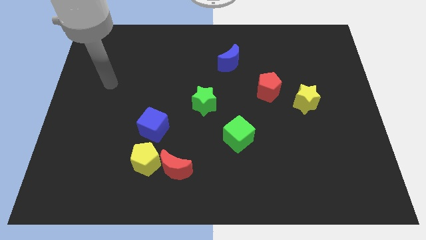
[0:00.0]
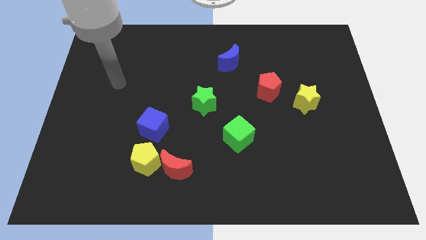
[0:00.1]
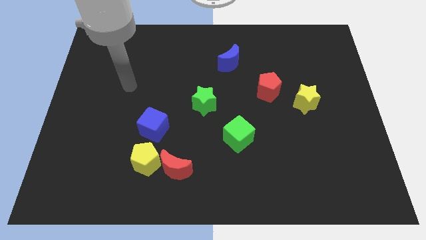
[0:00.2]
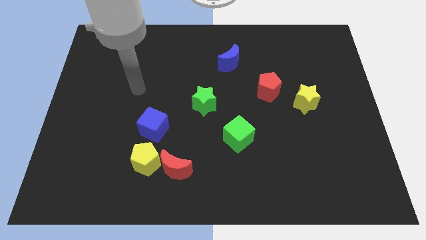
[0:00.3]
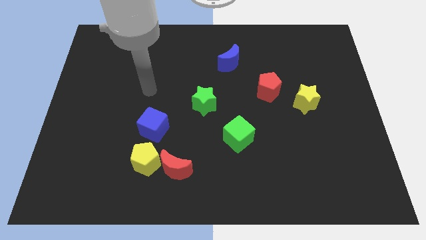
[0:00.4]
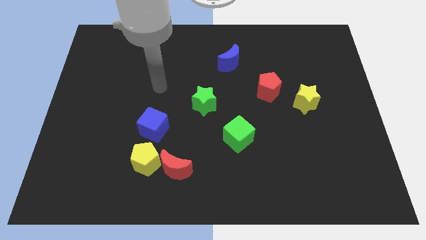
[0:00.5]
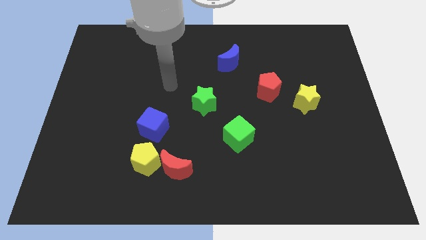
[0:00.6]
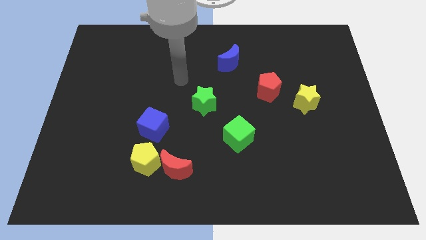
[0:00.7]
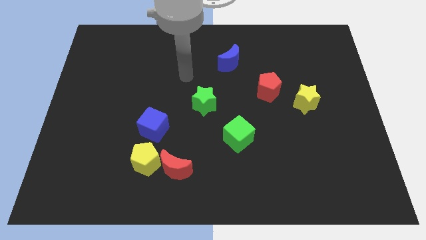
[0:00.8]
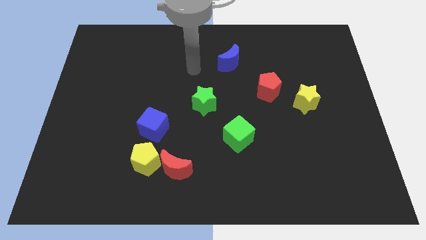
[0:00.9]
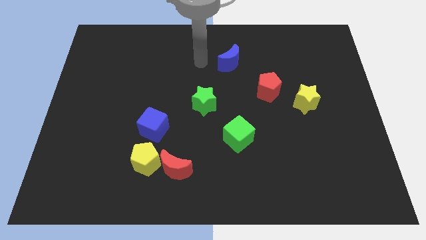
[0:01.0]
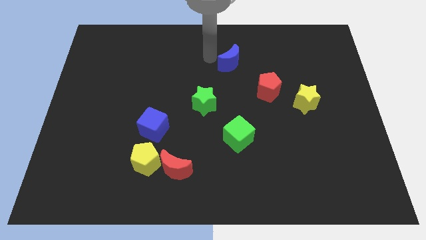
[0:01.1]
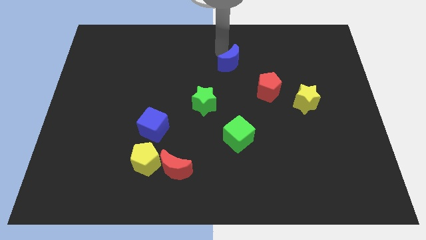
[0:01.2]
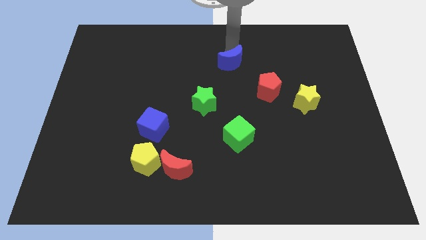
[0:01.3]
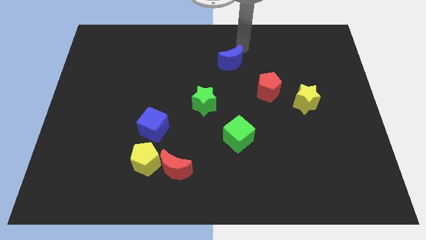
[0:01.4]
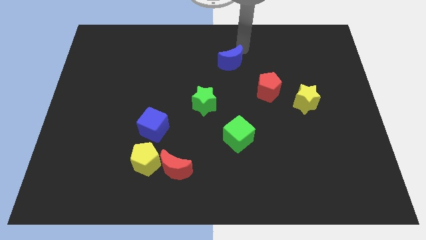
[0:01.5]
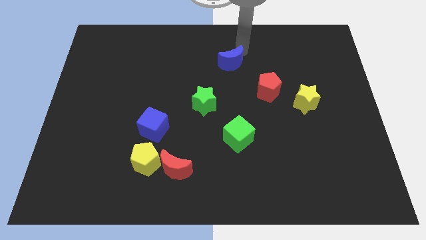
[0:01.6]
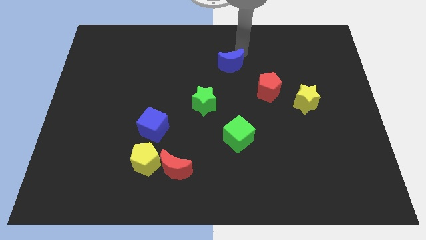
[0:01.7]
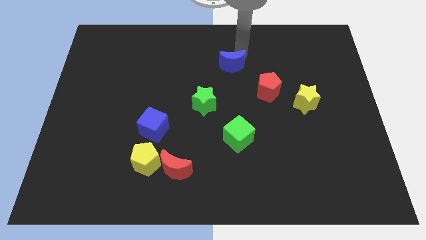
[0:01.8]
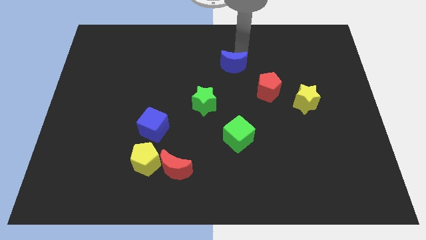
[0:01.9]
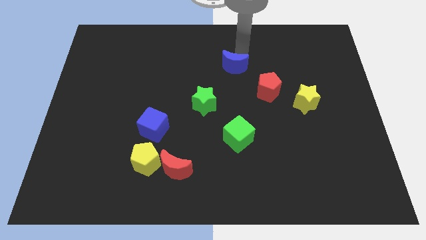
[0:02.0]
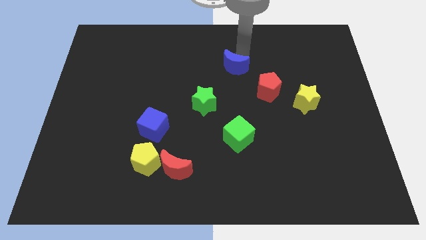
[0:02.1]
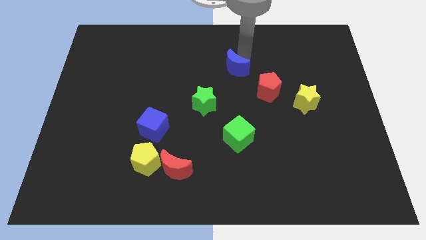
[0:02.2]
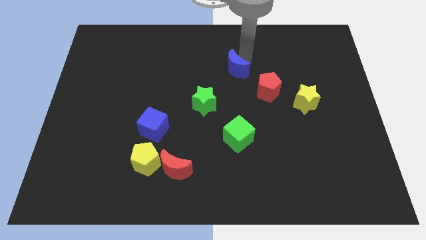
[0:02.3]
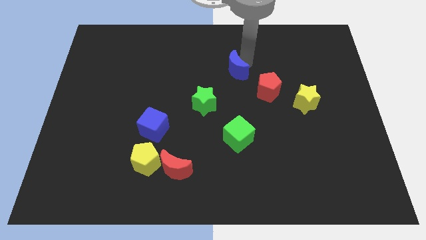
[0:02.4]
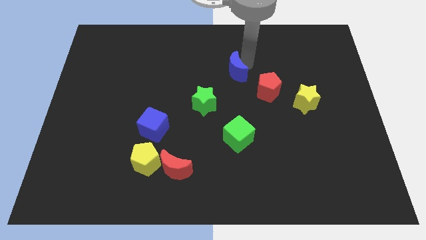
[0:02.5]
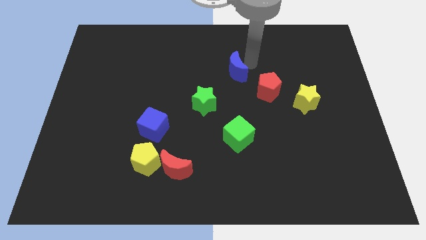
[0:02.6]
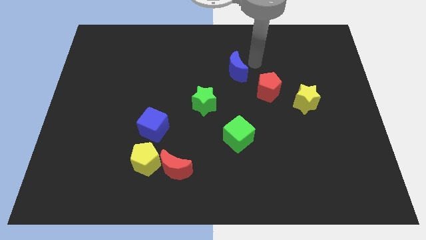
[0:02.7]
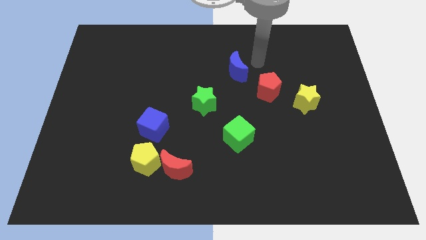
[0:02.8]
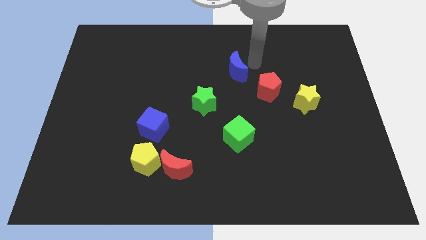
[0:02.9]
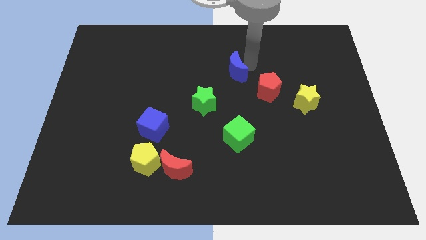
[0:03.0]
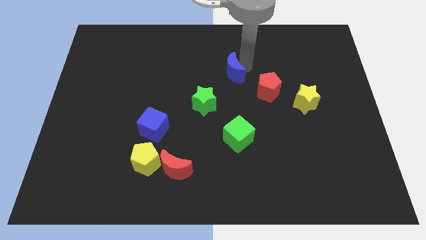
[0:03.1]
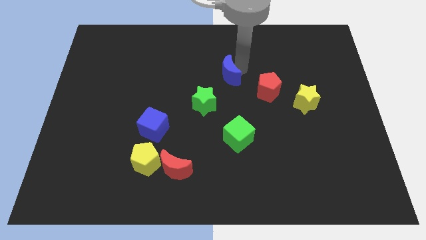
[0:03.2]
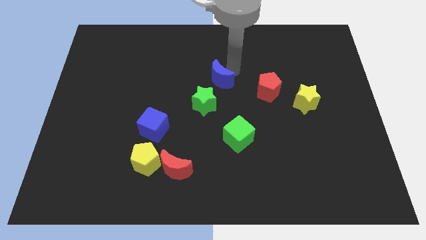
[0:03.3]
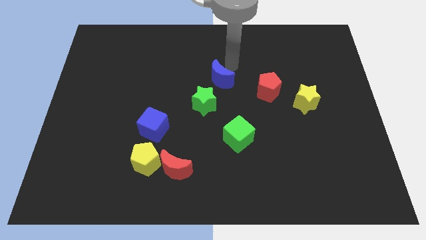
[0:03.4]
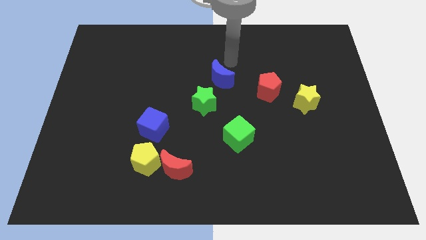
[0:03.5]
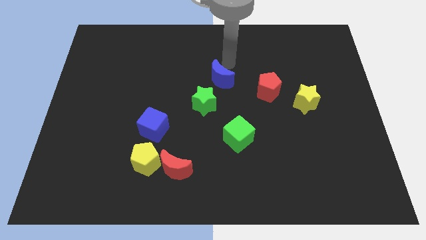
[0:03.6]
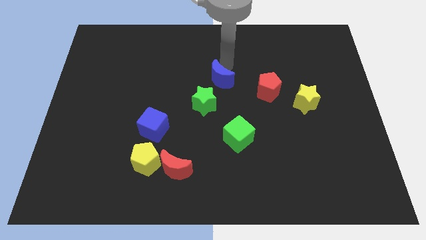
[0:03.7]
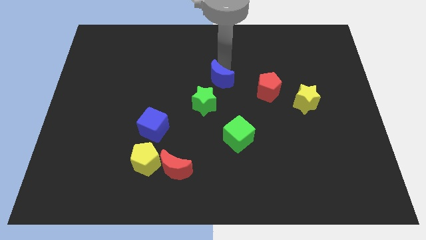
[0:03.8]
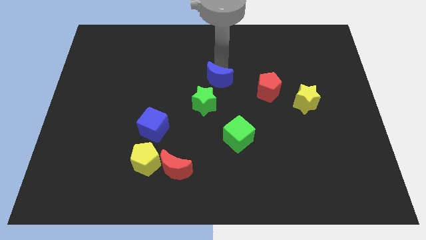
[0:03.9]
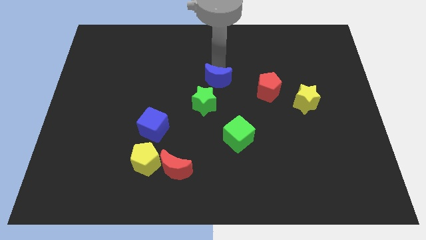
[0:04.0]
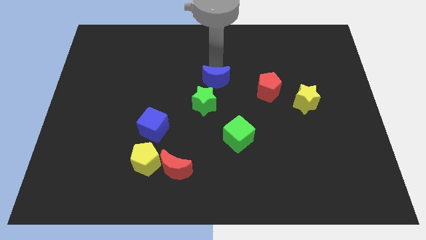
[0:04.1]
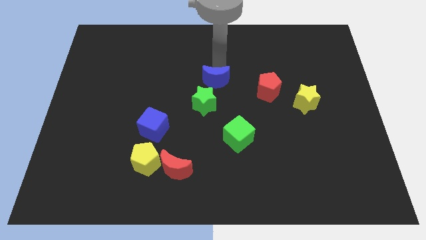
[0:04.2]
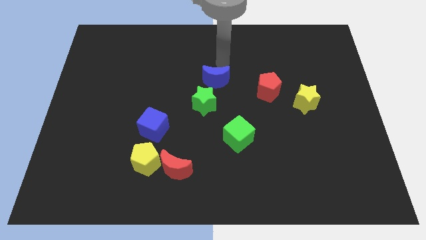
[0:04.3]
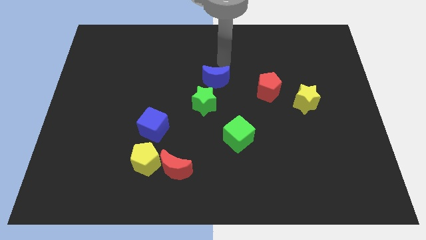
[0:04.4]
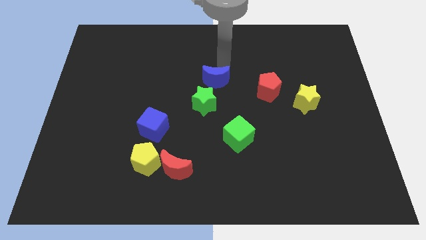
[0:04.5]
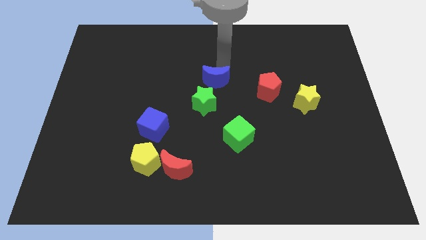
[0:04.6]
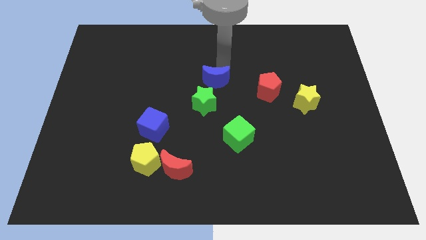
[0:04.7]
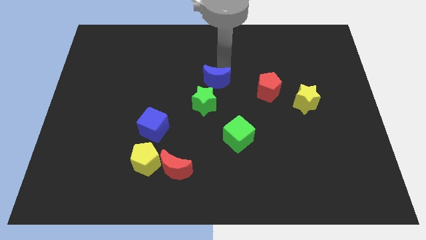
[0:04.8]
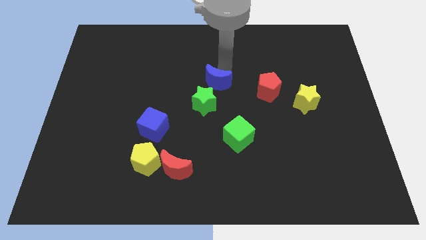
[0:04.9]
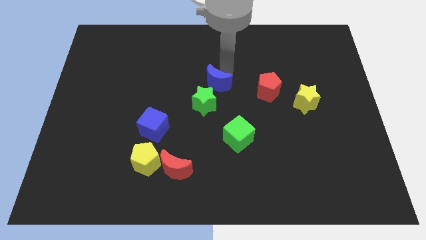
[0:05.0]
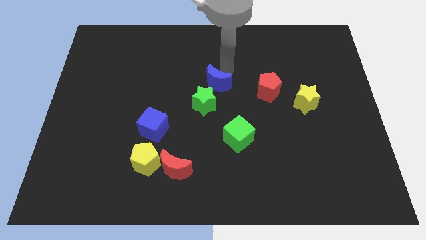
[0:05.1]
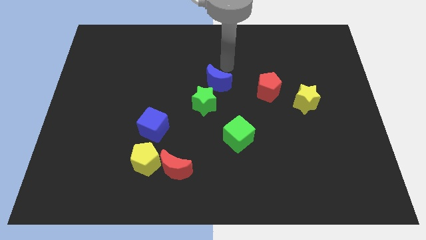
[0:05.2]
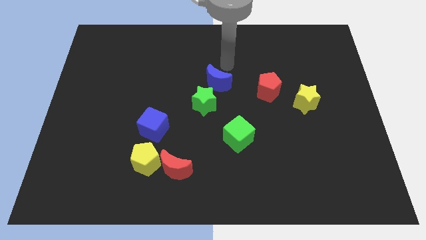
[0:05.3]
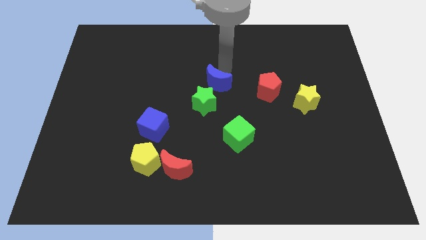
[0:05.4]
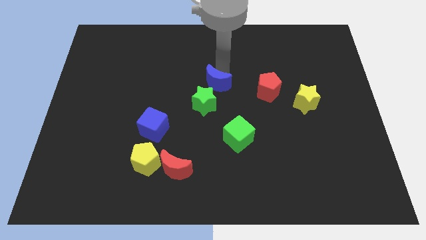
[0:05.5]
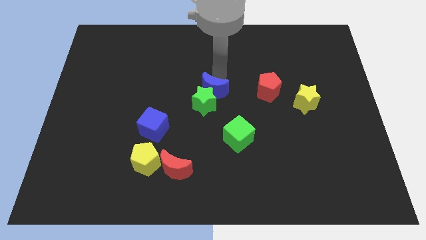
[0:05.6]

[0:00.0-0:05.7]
move the blue moon towards the green star

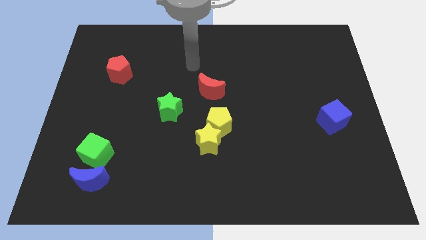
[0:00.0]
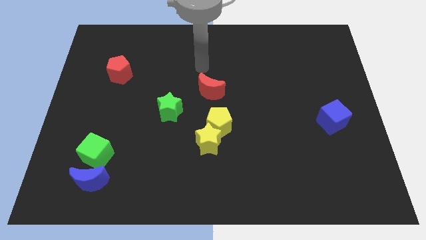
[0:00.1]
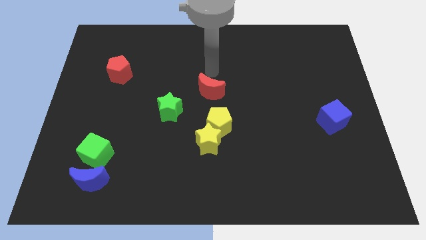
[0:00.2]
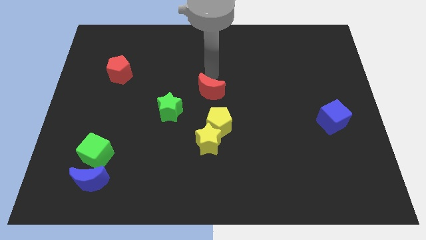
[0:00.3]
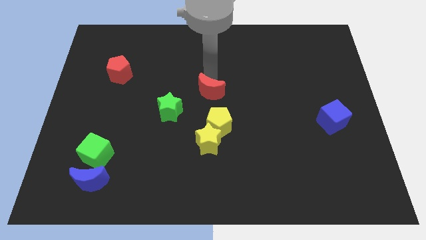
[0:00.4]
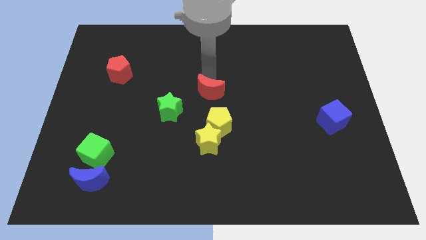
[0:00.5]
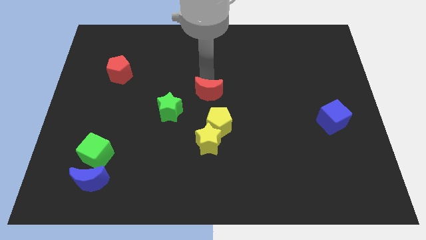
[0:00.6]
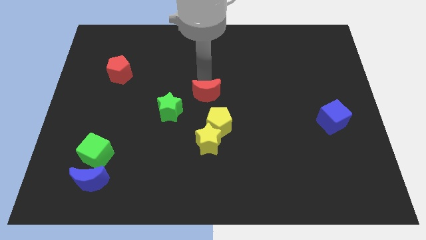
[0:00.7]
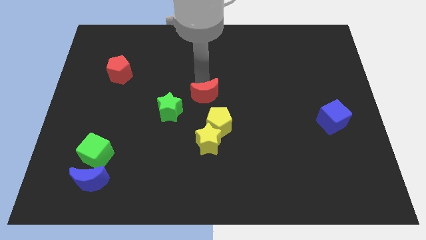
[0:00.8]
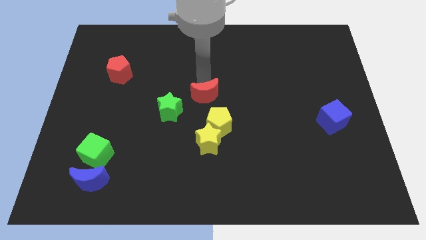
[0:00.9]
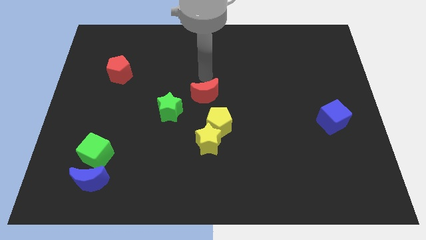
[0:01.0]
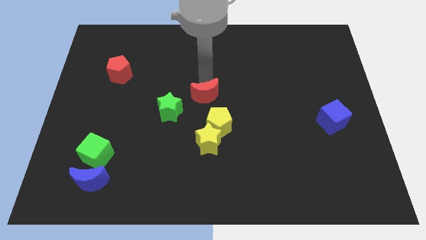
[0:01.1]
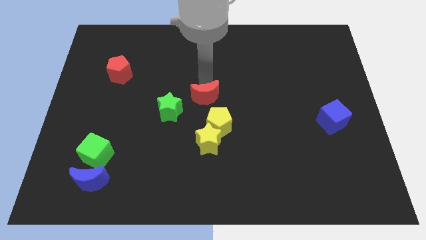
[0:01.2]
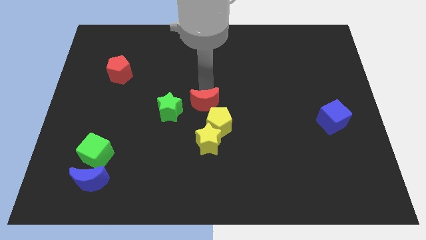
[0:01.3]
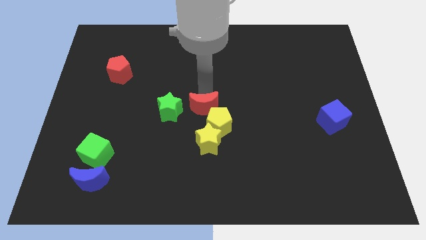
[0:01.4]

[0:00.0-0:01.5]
slide the red moon to the yellow pentagon
